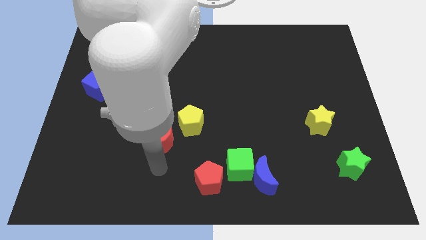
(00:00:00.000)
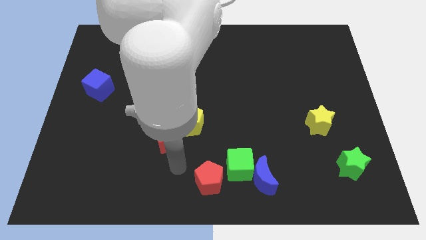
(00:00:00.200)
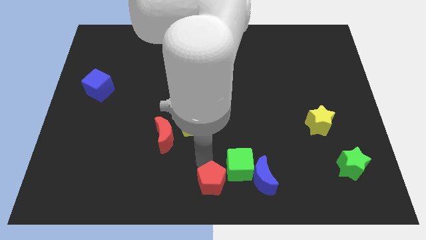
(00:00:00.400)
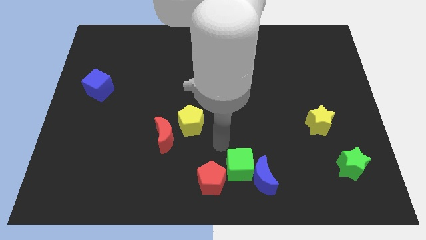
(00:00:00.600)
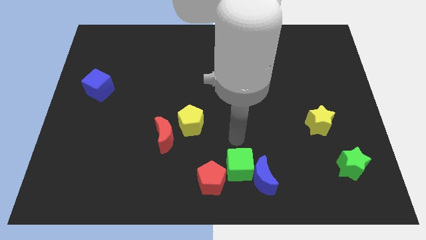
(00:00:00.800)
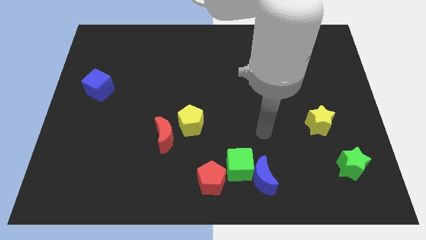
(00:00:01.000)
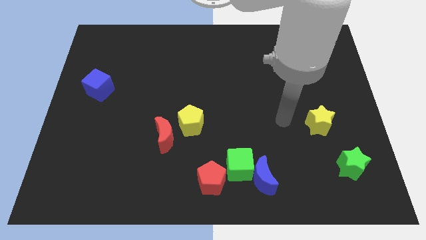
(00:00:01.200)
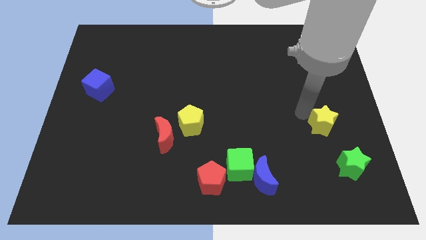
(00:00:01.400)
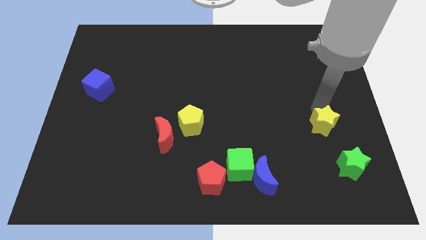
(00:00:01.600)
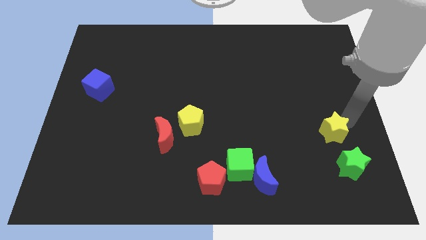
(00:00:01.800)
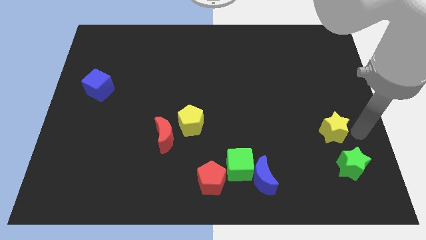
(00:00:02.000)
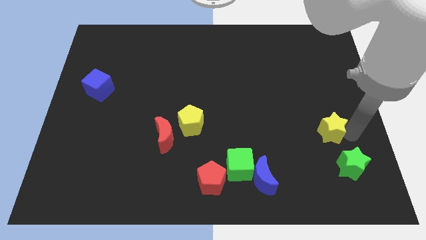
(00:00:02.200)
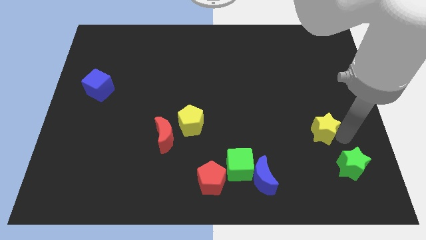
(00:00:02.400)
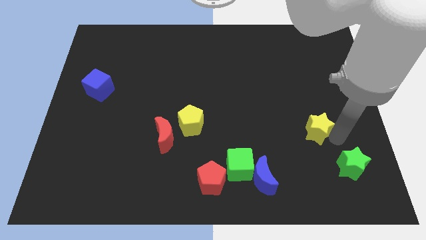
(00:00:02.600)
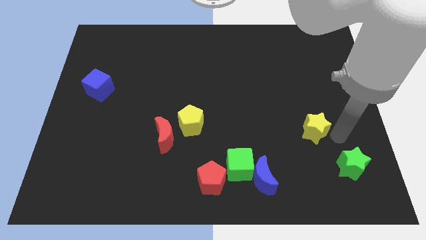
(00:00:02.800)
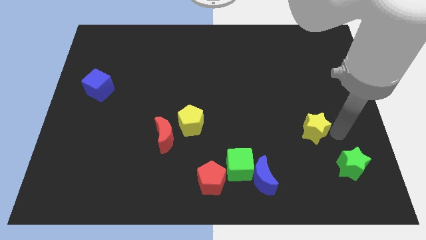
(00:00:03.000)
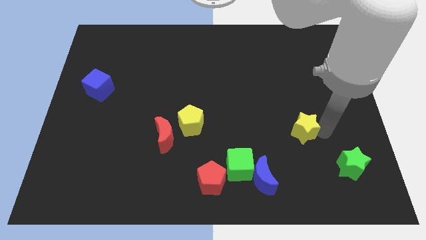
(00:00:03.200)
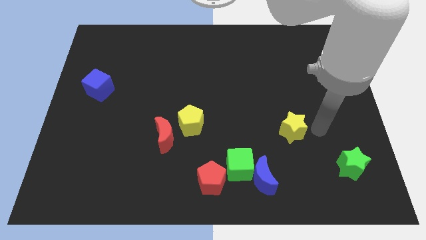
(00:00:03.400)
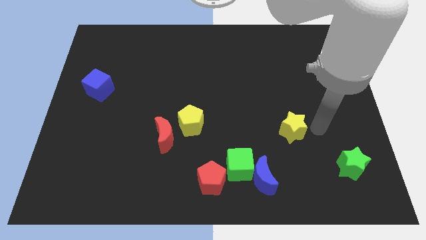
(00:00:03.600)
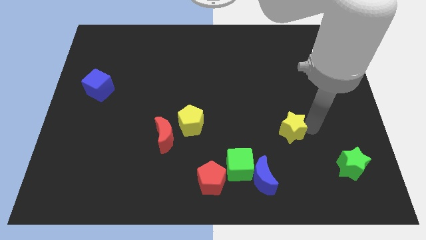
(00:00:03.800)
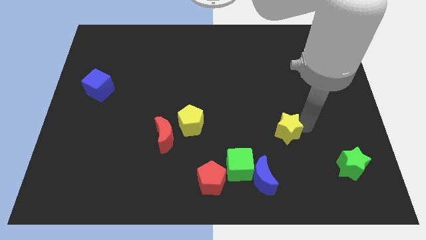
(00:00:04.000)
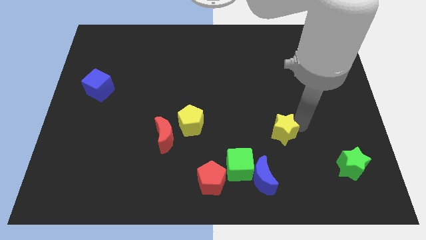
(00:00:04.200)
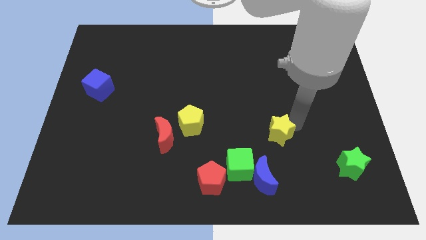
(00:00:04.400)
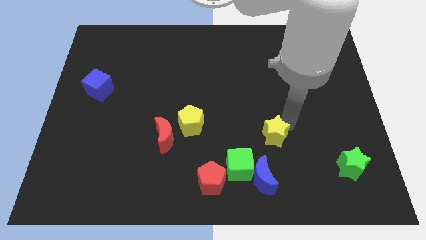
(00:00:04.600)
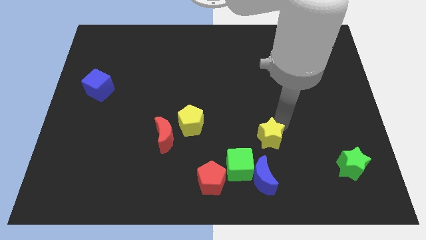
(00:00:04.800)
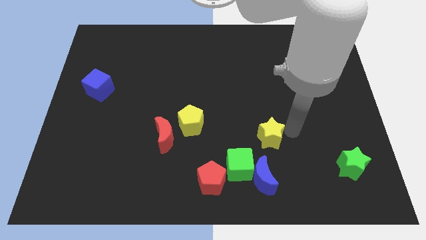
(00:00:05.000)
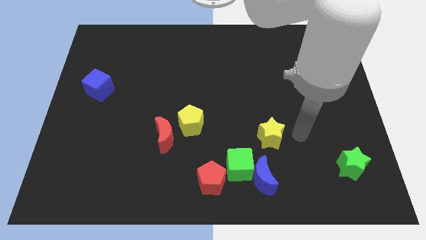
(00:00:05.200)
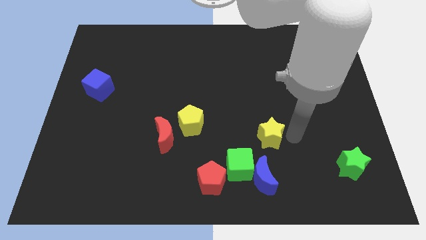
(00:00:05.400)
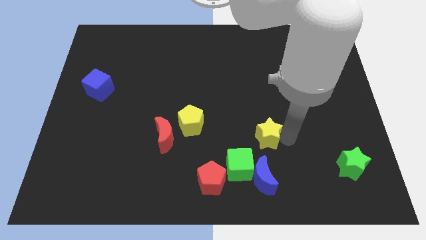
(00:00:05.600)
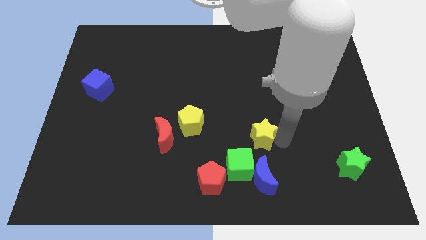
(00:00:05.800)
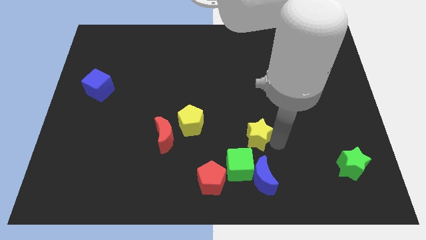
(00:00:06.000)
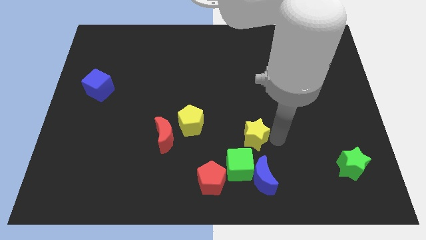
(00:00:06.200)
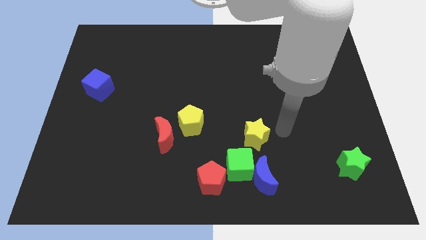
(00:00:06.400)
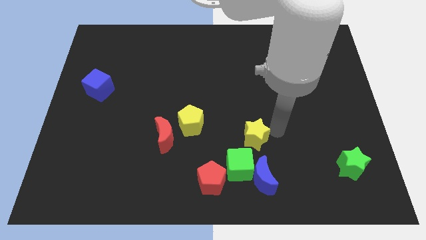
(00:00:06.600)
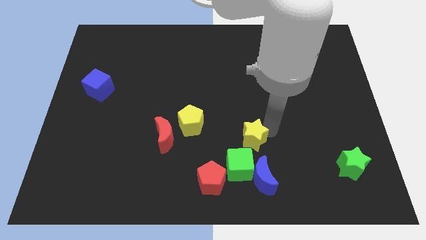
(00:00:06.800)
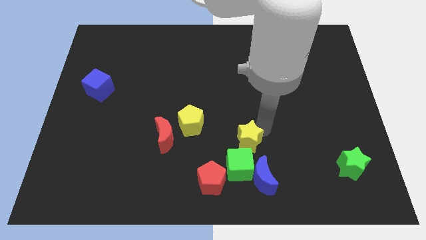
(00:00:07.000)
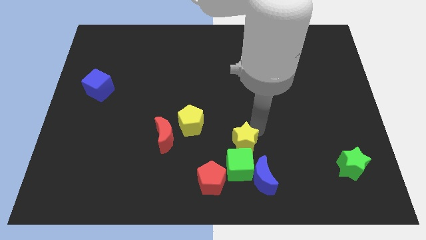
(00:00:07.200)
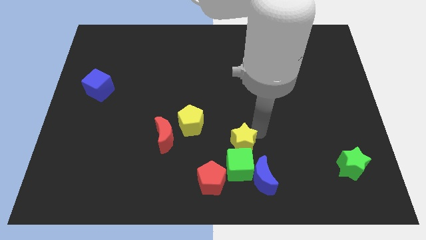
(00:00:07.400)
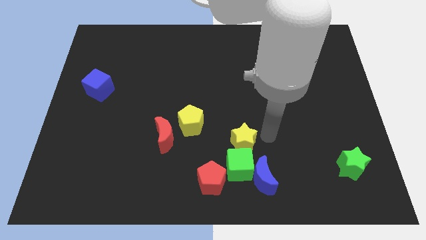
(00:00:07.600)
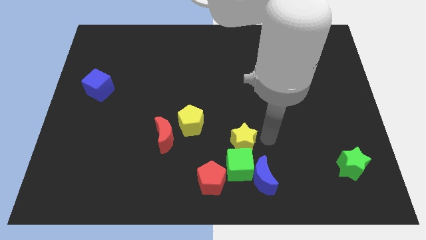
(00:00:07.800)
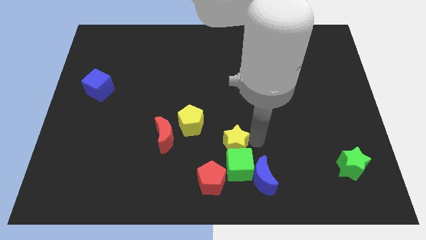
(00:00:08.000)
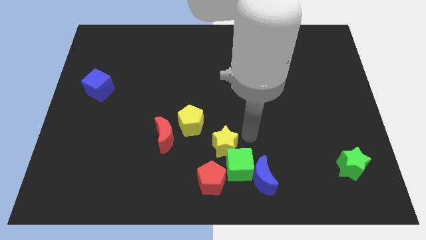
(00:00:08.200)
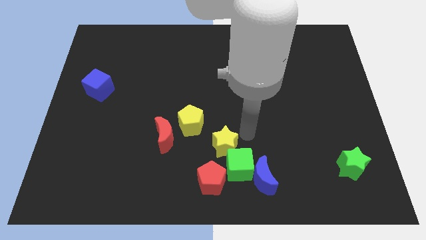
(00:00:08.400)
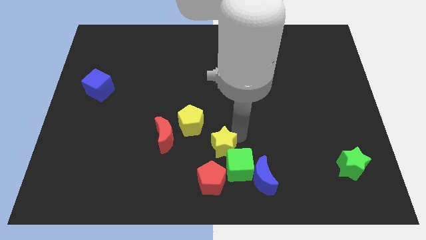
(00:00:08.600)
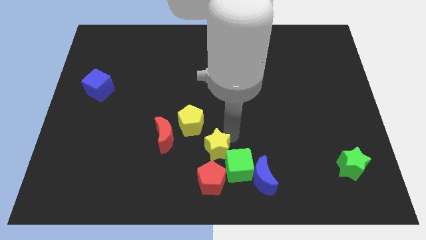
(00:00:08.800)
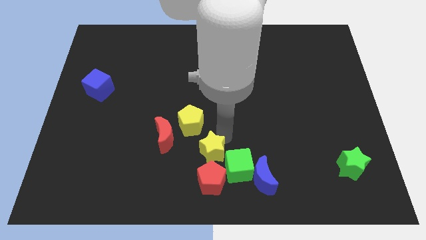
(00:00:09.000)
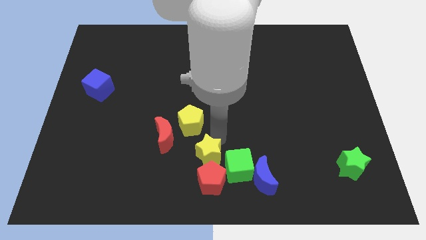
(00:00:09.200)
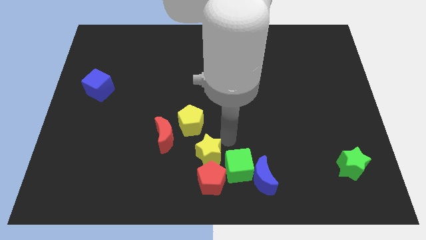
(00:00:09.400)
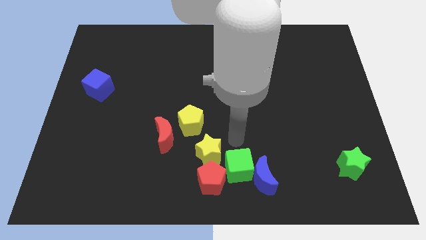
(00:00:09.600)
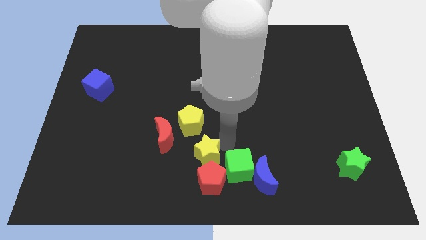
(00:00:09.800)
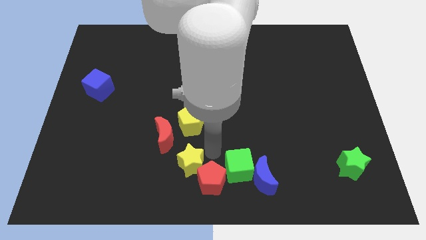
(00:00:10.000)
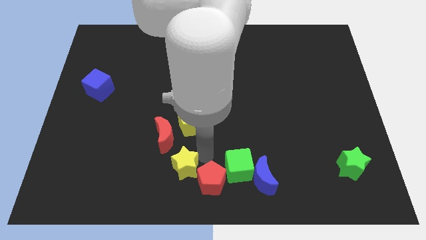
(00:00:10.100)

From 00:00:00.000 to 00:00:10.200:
put the yellow star to the bottom side of the red moon

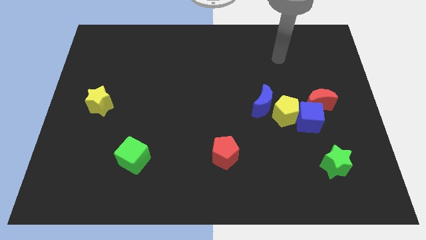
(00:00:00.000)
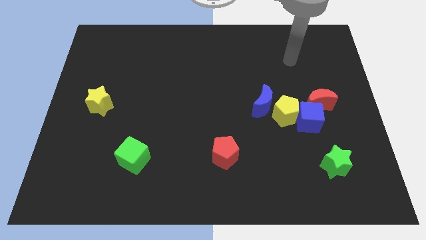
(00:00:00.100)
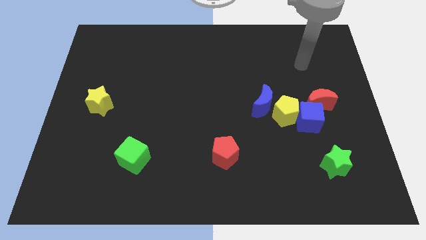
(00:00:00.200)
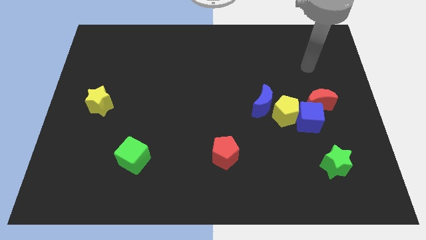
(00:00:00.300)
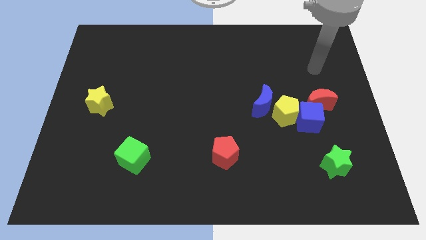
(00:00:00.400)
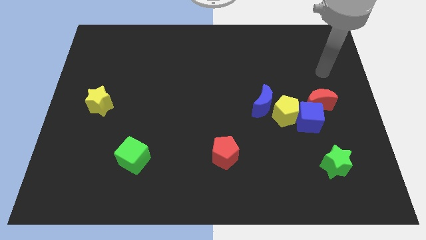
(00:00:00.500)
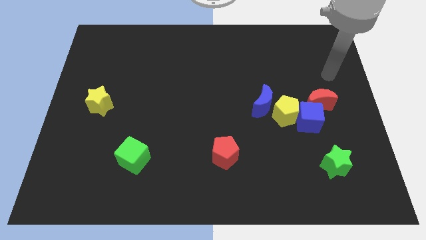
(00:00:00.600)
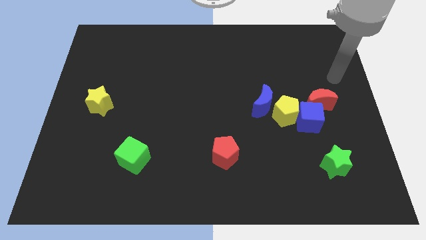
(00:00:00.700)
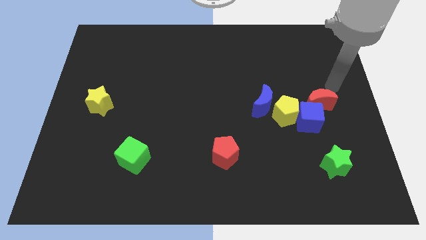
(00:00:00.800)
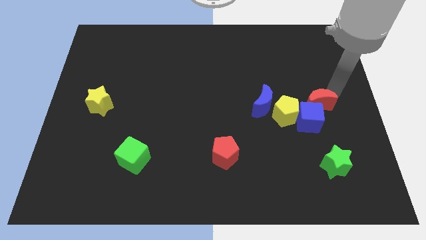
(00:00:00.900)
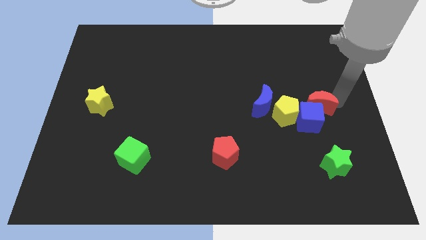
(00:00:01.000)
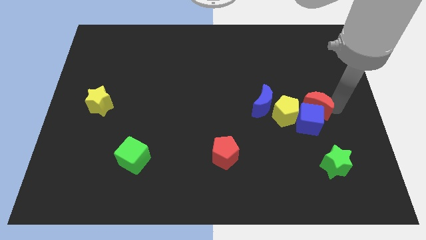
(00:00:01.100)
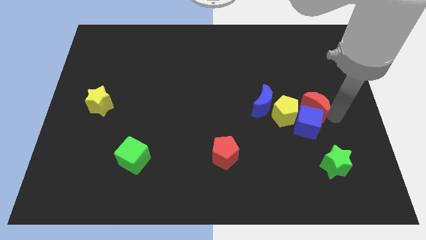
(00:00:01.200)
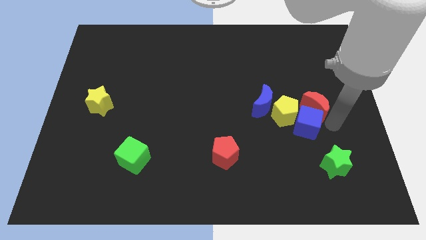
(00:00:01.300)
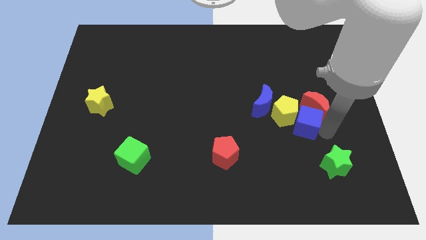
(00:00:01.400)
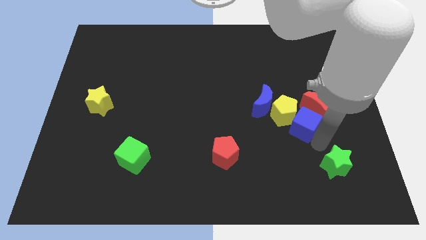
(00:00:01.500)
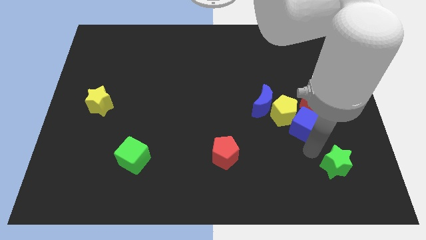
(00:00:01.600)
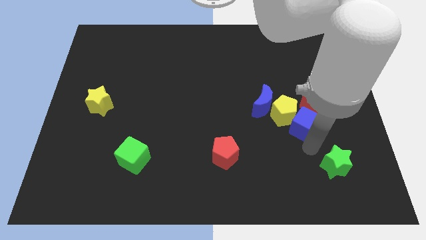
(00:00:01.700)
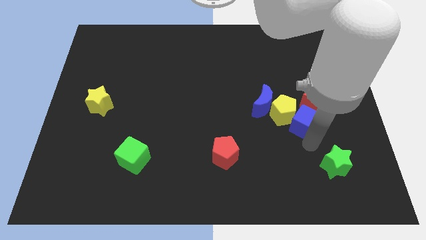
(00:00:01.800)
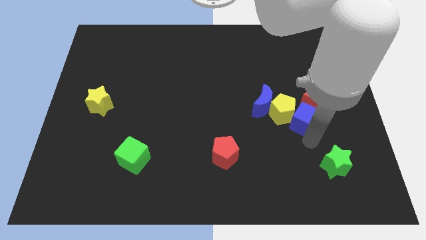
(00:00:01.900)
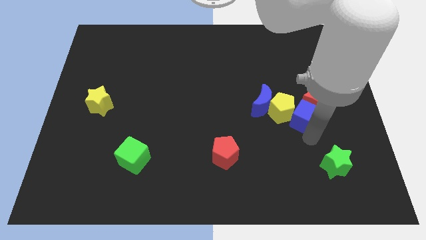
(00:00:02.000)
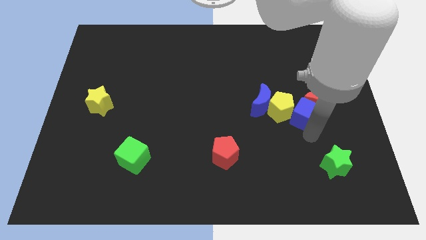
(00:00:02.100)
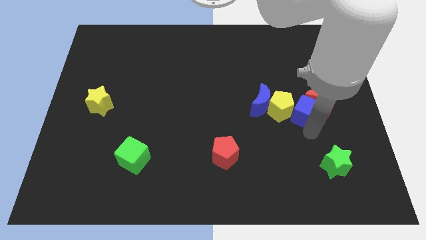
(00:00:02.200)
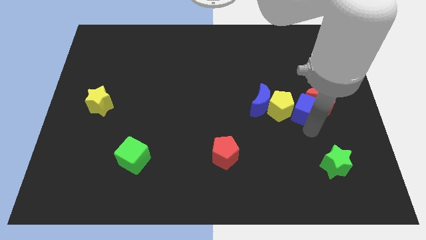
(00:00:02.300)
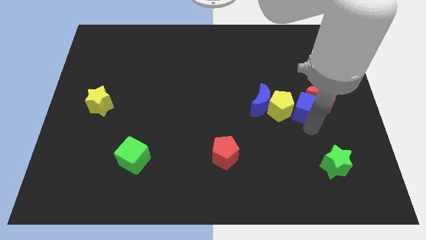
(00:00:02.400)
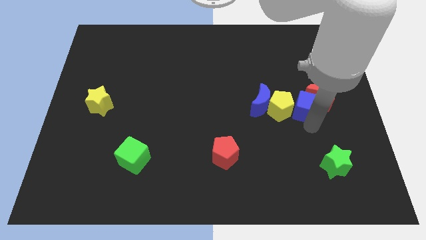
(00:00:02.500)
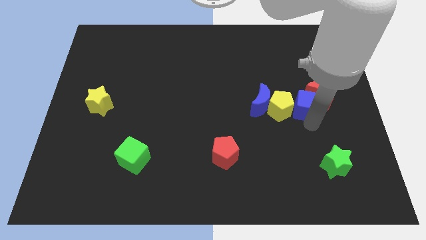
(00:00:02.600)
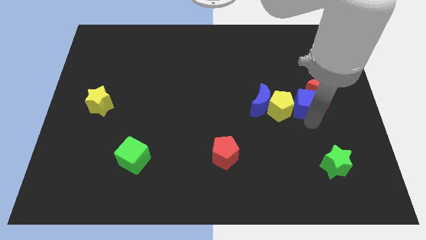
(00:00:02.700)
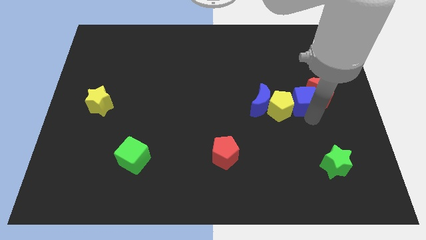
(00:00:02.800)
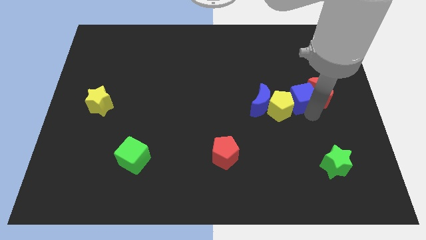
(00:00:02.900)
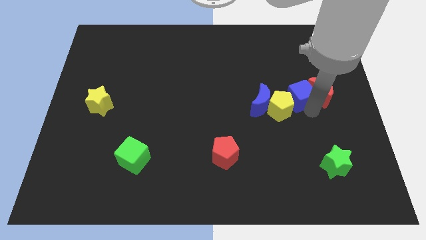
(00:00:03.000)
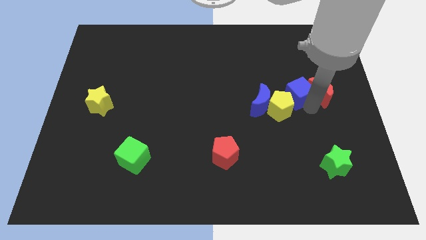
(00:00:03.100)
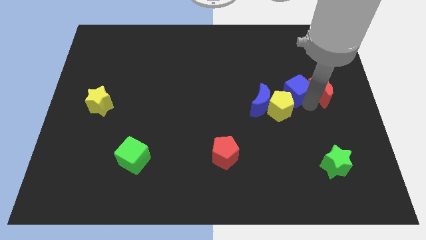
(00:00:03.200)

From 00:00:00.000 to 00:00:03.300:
slide the blue cube to the top side of the yellow pentagon
